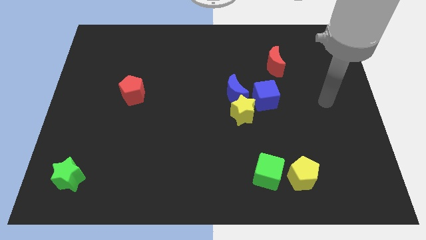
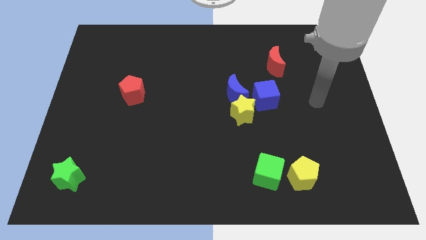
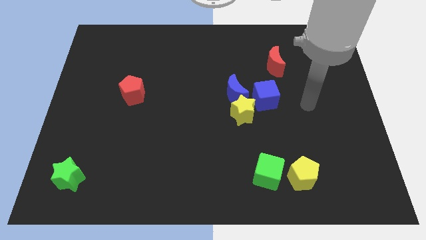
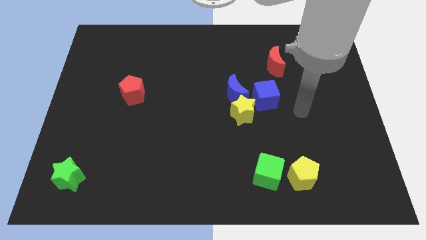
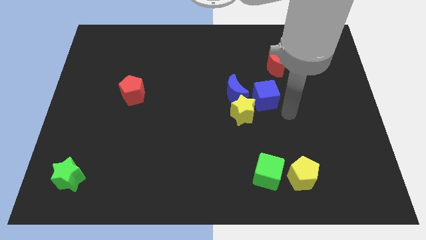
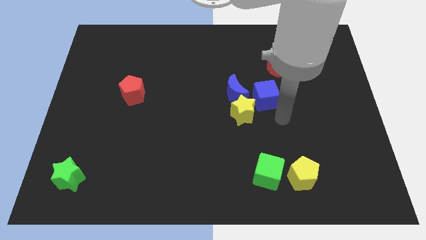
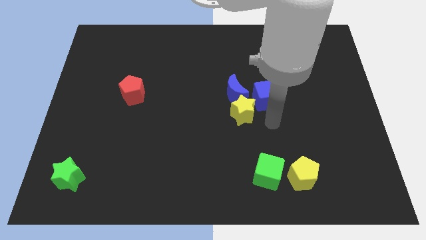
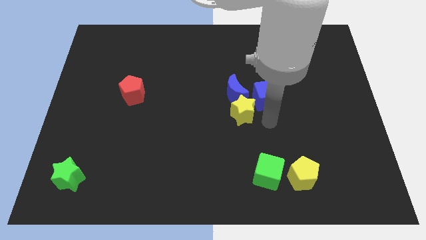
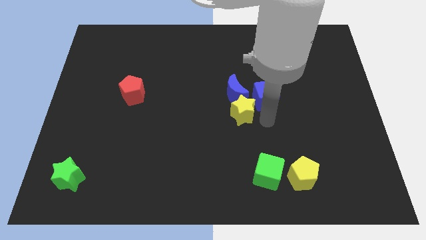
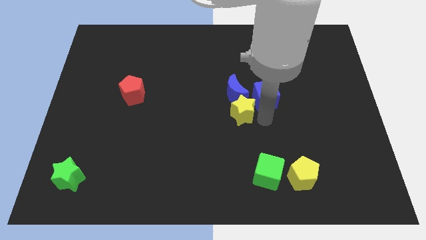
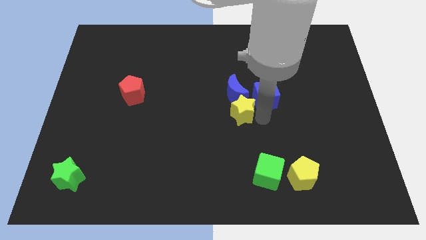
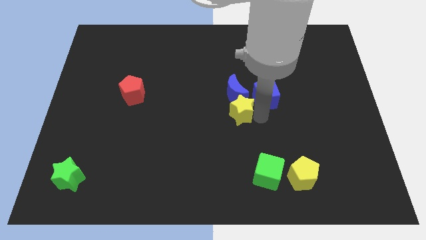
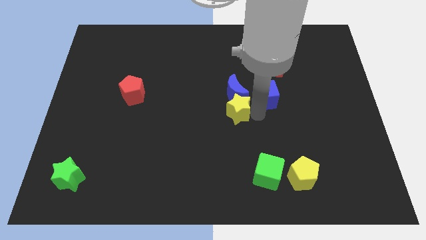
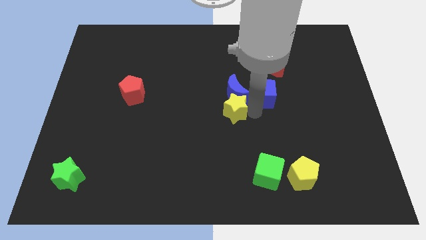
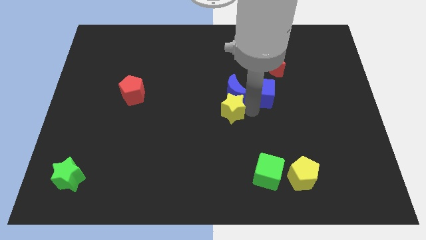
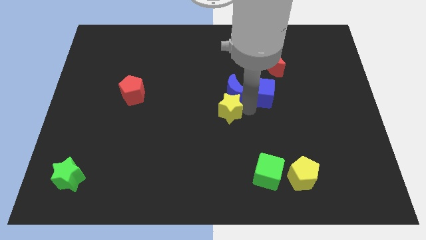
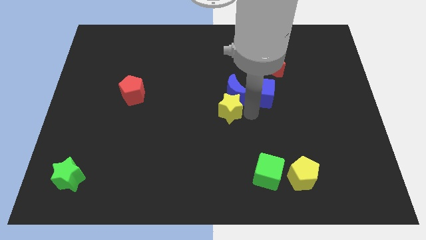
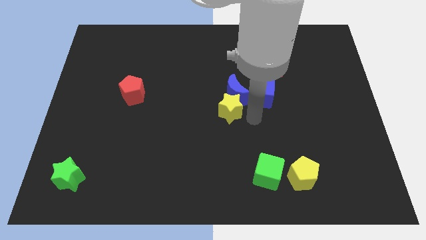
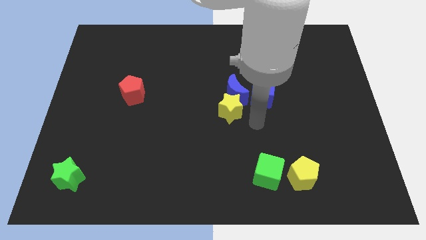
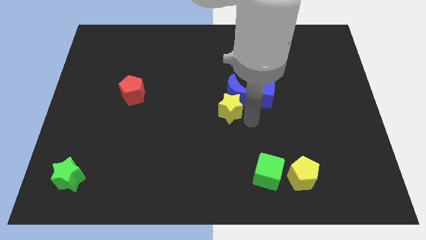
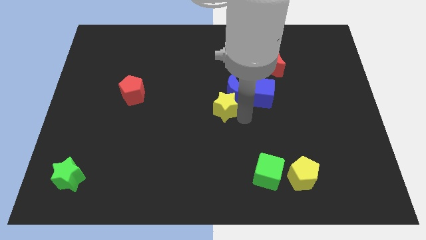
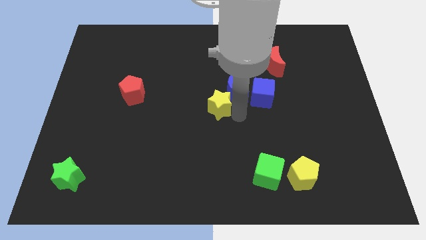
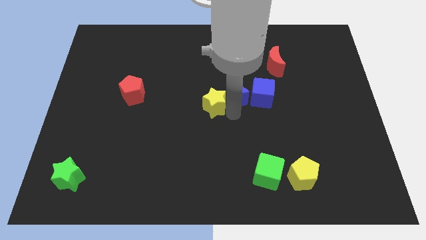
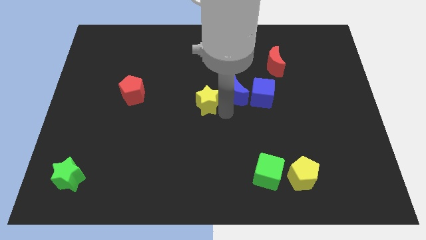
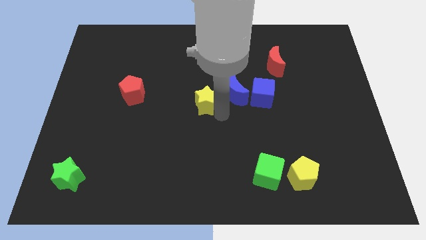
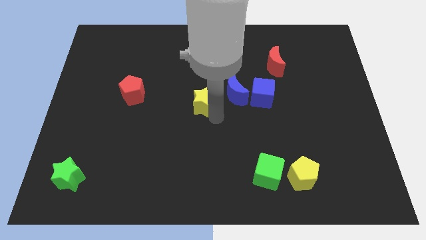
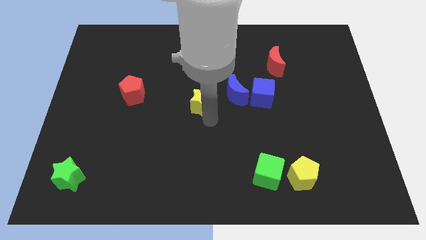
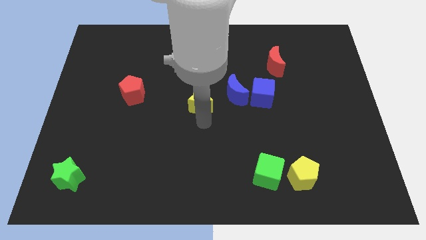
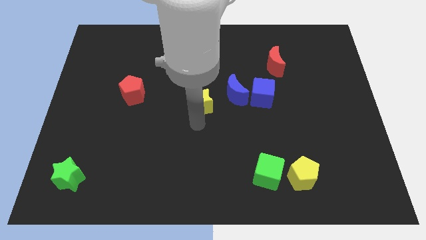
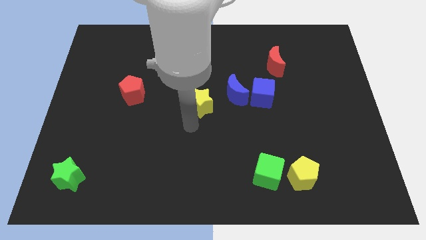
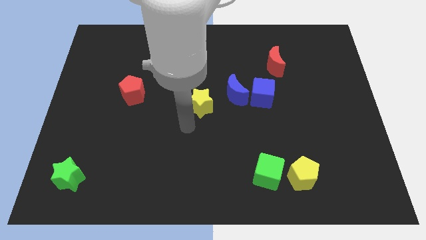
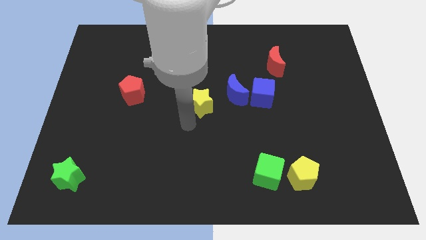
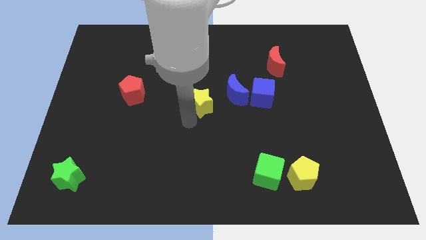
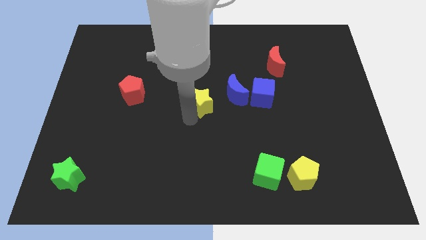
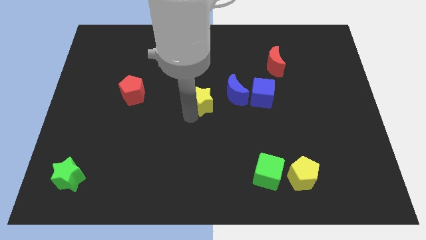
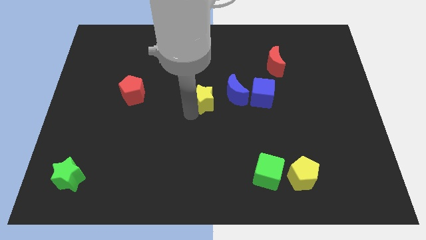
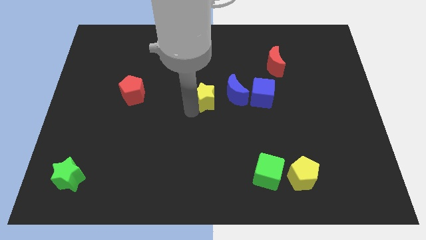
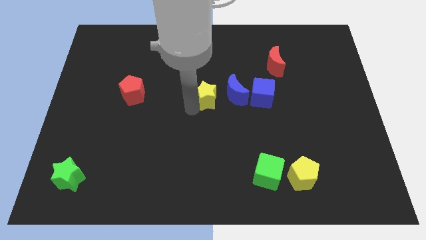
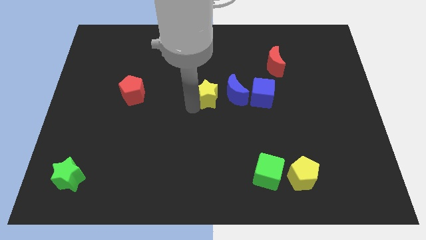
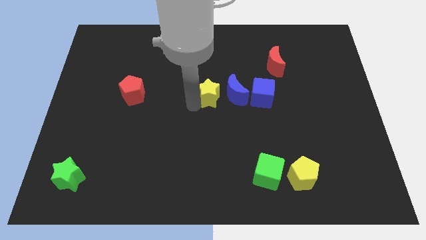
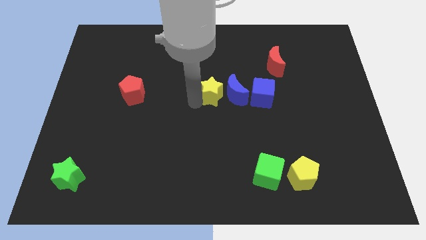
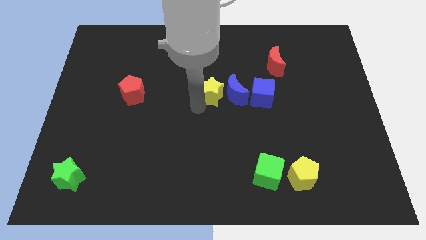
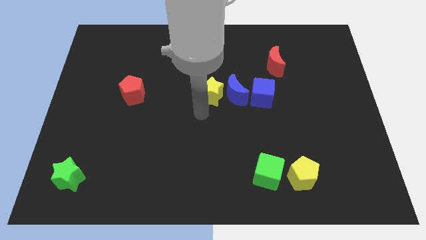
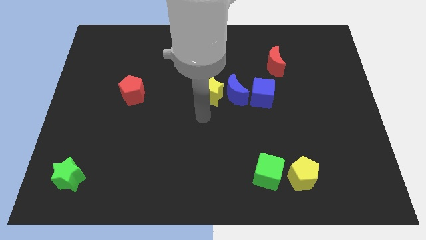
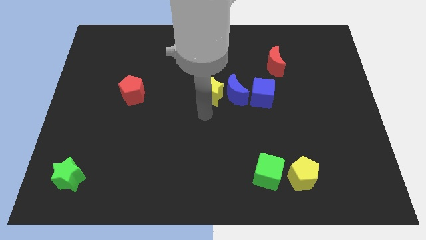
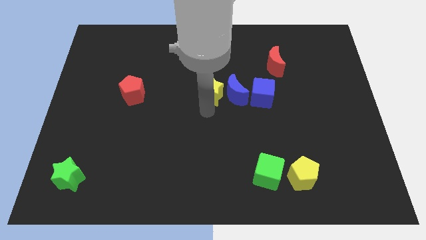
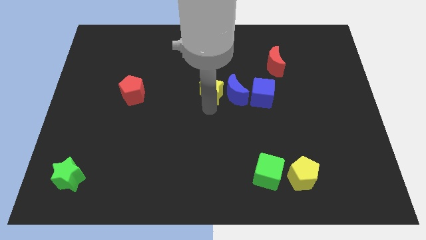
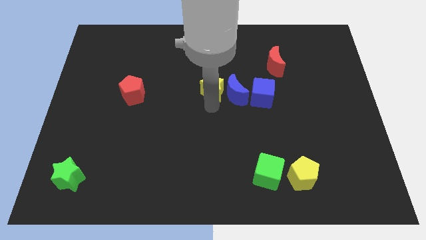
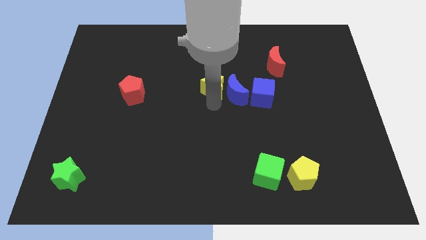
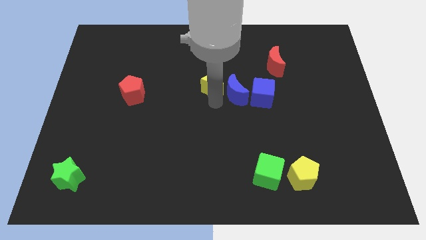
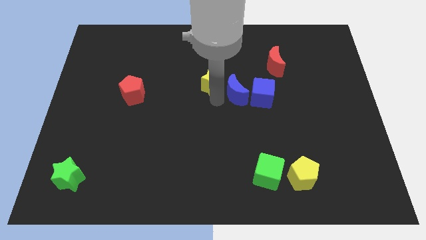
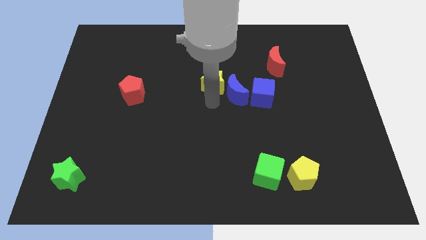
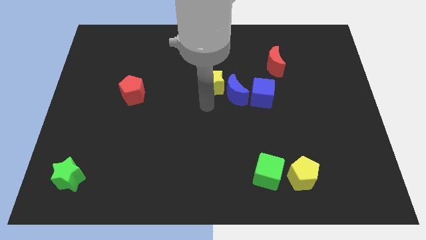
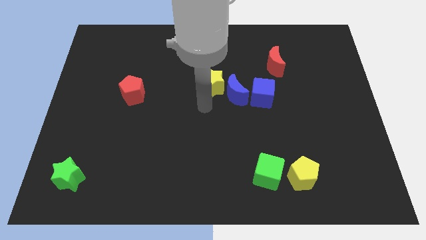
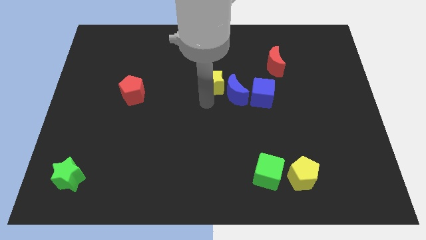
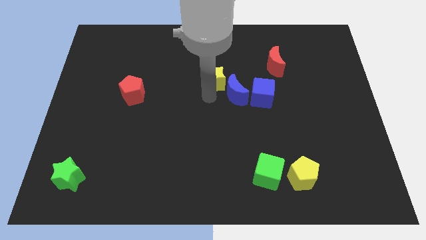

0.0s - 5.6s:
move the yellow star a little bit upwards

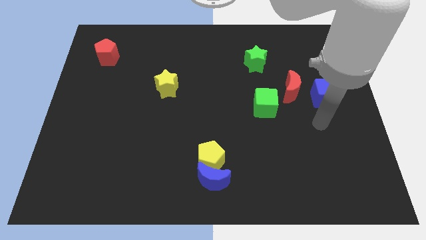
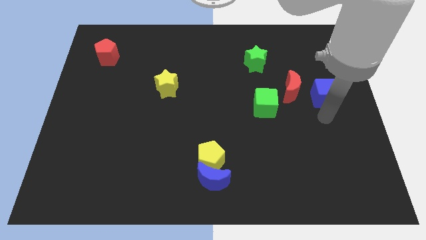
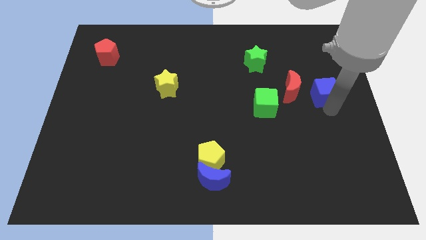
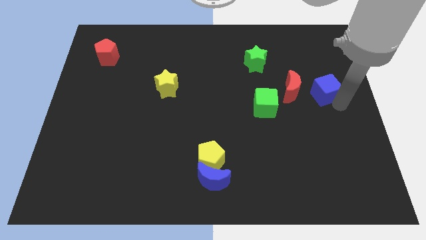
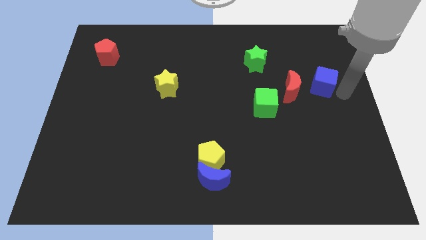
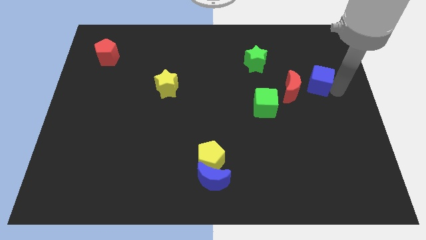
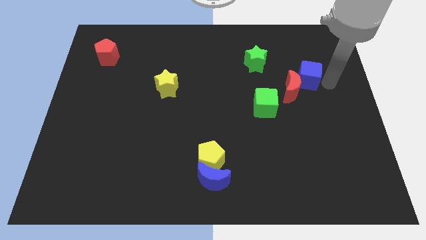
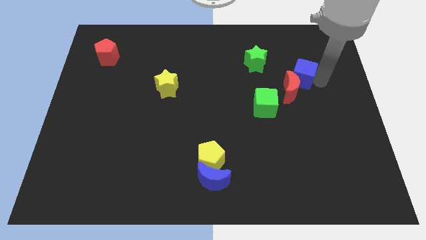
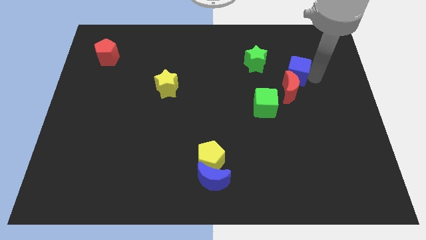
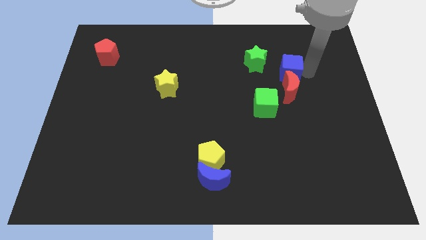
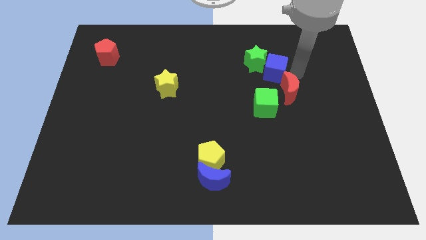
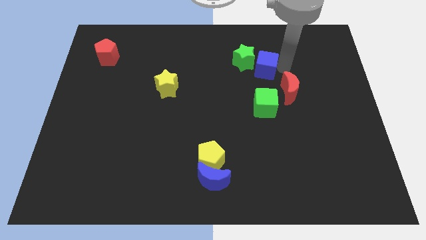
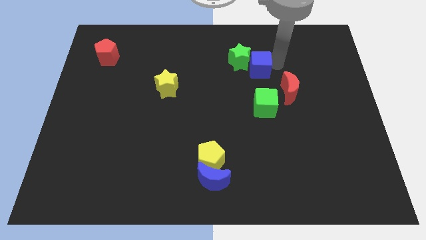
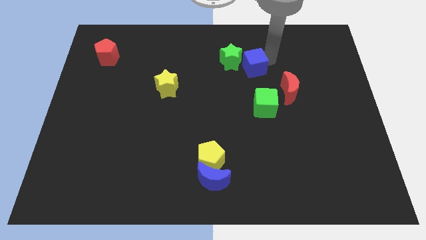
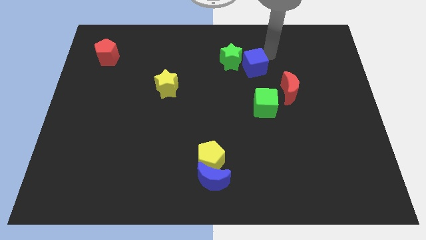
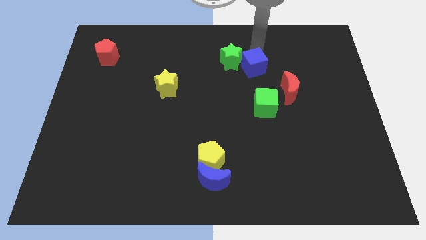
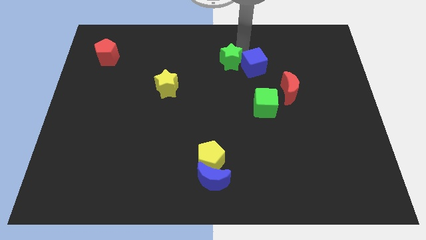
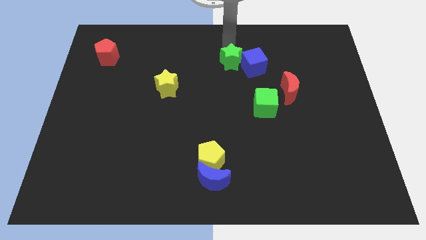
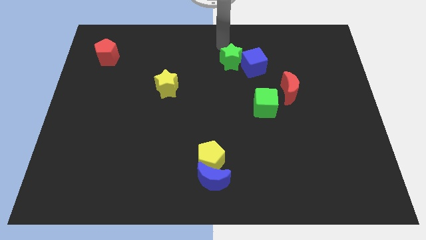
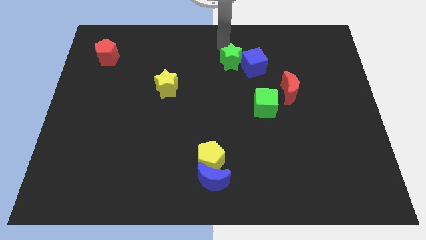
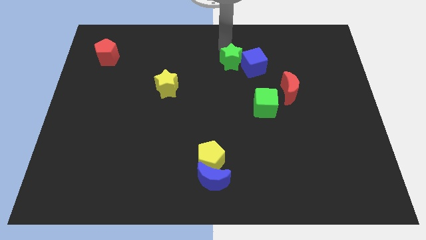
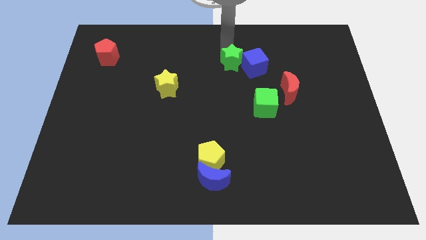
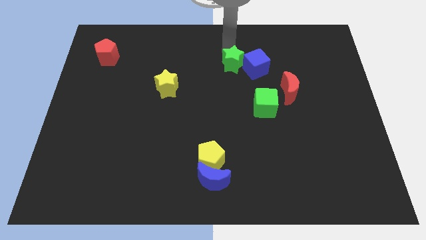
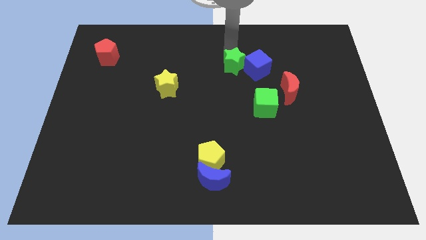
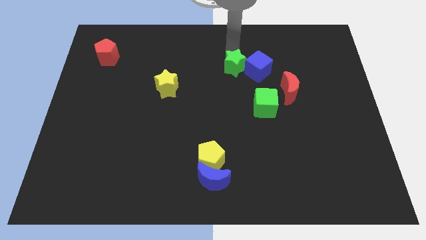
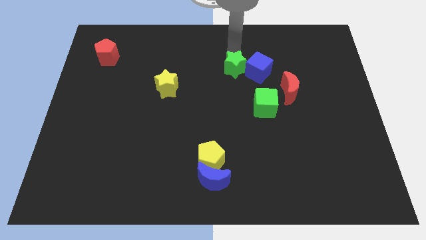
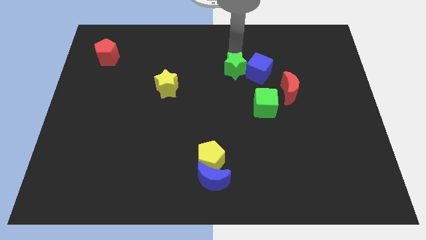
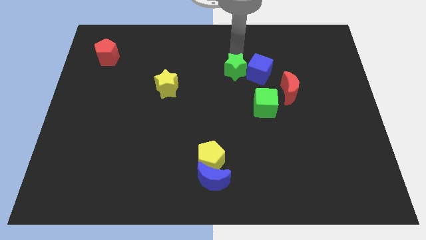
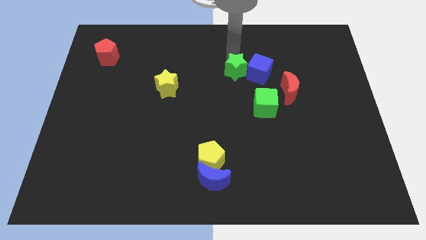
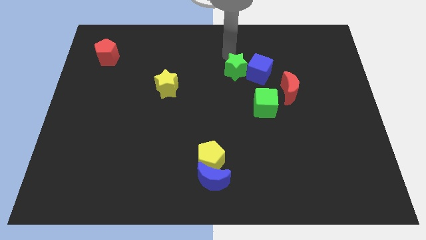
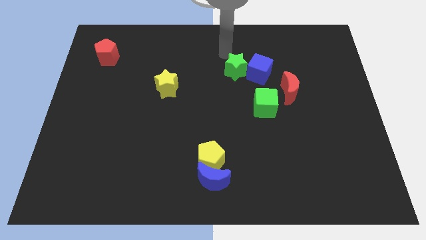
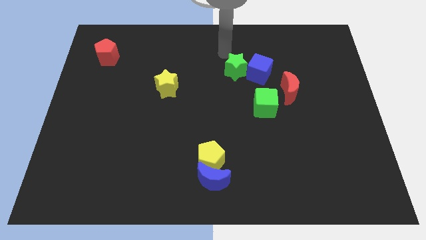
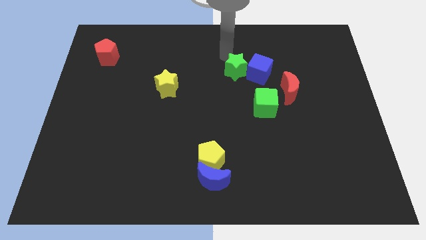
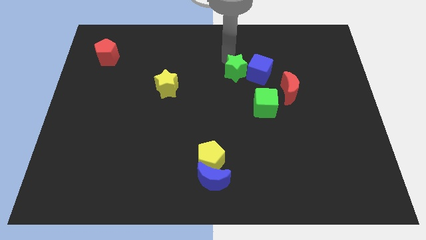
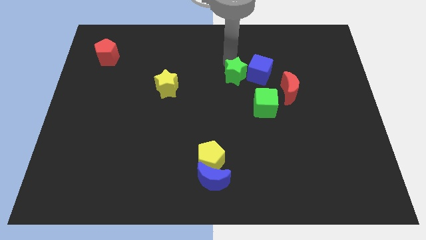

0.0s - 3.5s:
push the green star a little down and left diagonally
